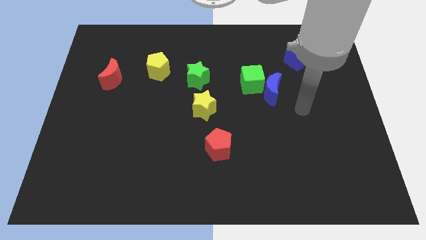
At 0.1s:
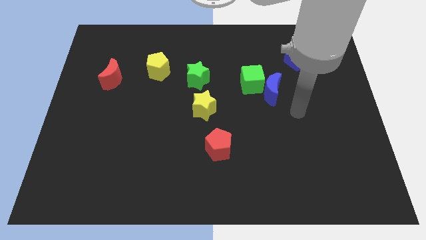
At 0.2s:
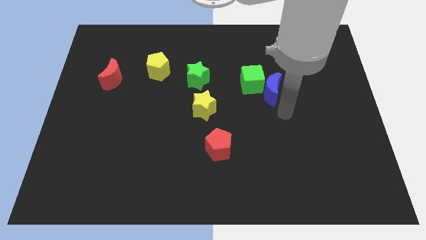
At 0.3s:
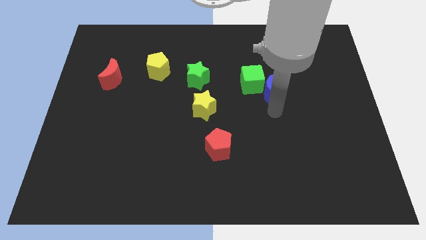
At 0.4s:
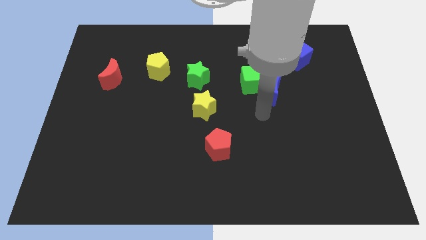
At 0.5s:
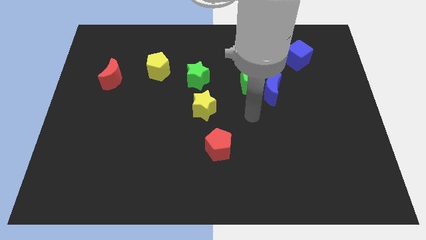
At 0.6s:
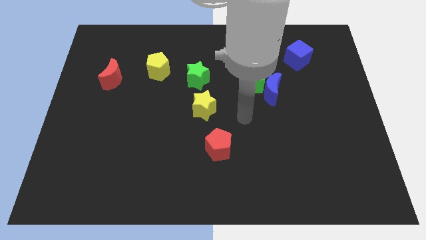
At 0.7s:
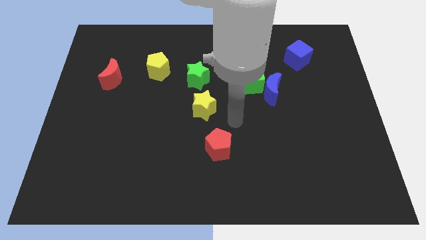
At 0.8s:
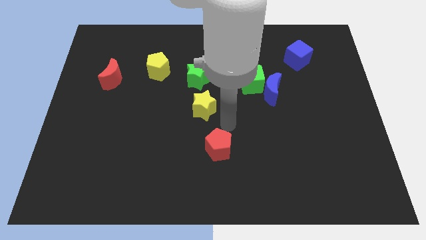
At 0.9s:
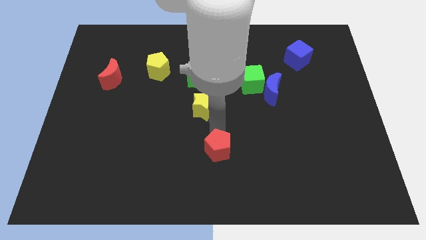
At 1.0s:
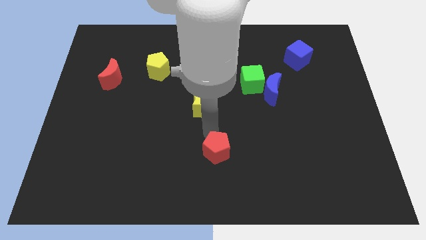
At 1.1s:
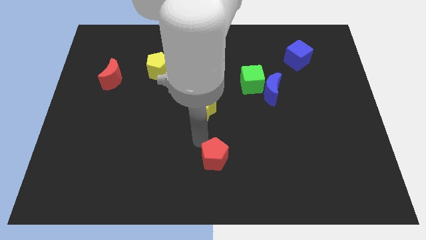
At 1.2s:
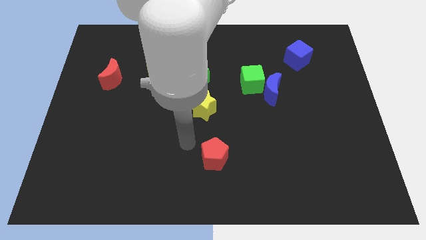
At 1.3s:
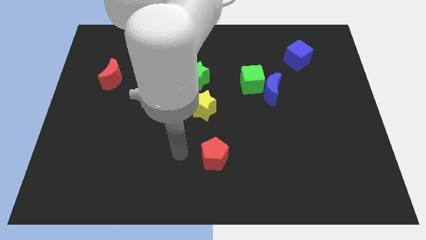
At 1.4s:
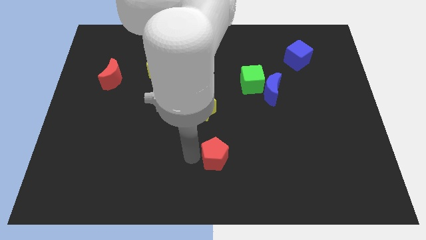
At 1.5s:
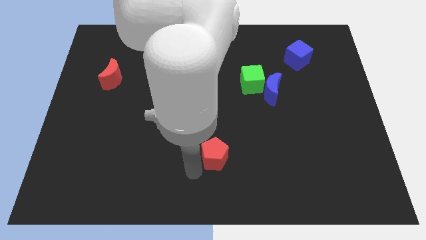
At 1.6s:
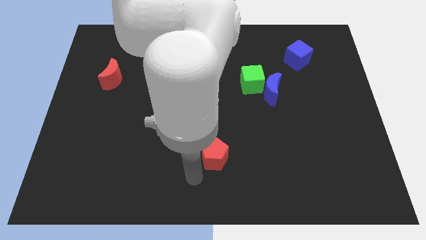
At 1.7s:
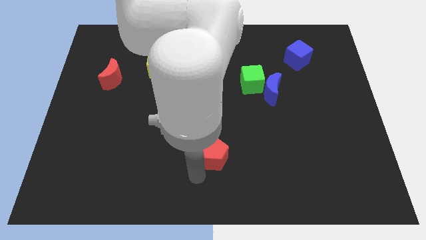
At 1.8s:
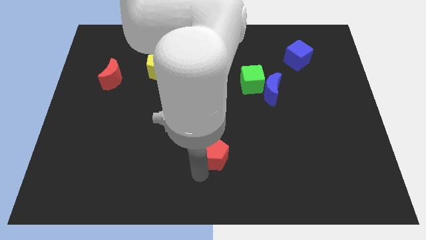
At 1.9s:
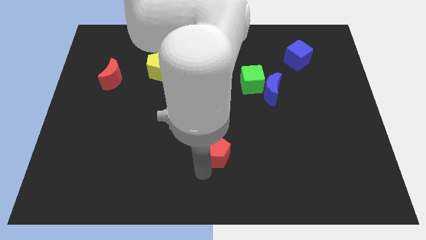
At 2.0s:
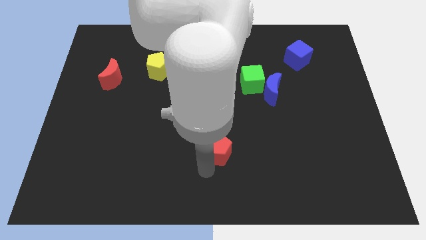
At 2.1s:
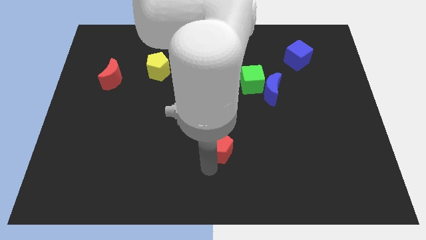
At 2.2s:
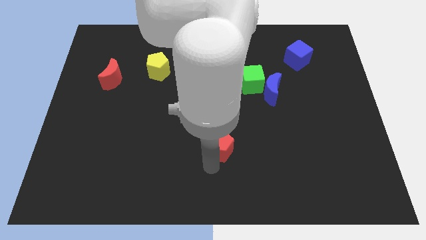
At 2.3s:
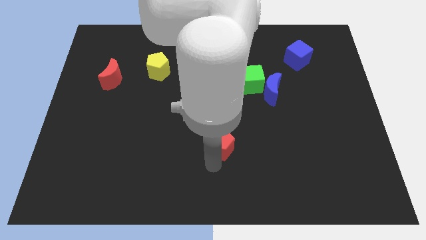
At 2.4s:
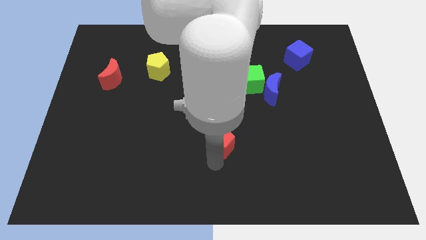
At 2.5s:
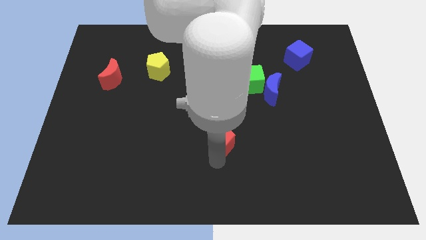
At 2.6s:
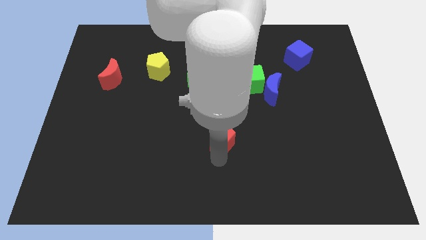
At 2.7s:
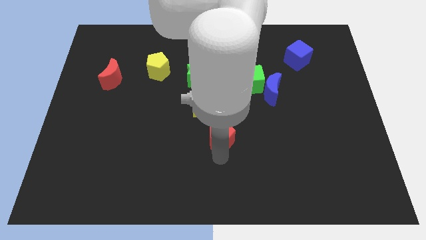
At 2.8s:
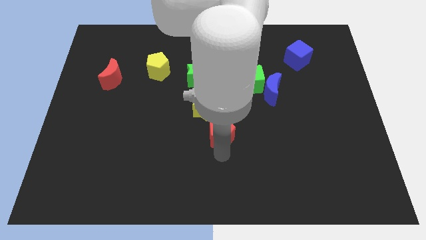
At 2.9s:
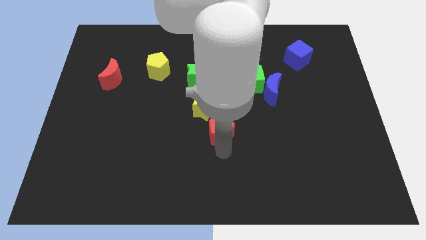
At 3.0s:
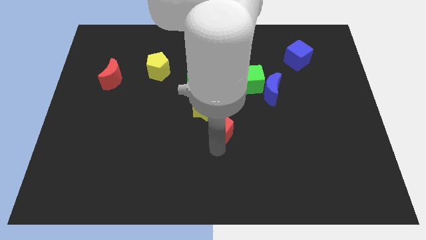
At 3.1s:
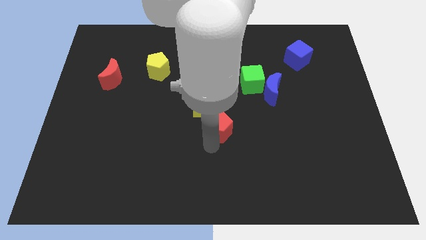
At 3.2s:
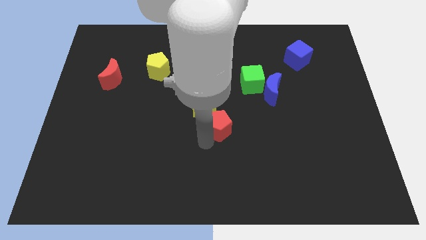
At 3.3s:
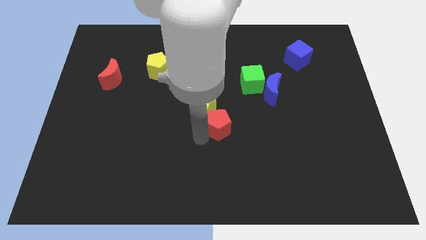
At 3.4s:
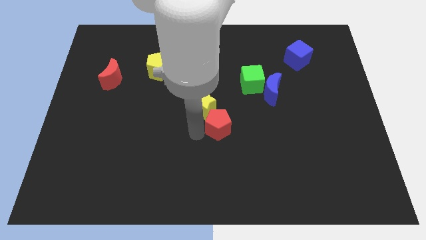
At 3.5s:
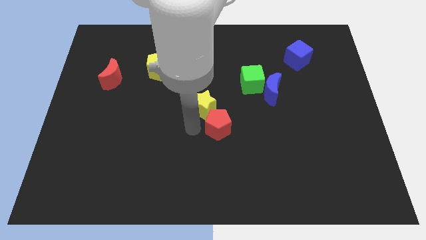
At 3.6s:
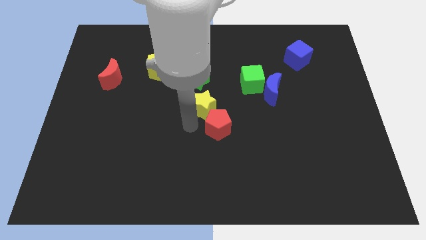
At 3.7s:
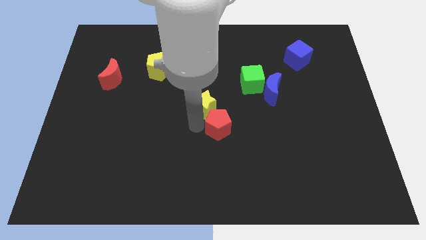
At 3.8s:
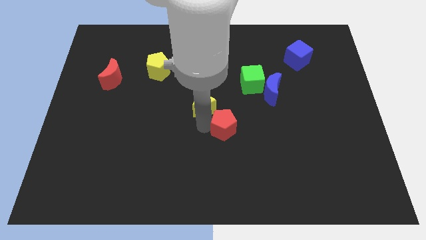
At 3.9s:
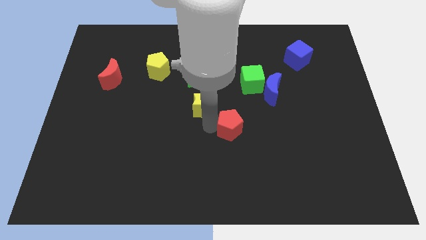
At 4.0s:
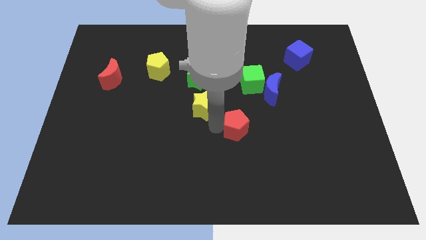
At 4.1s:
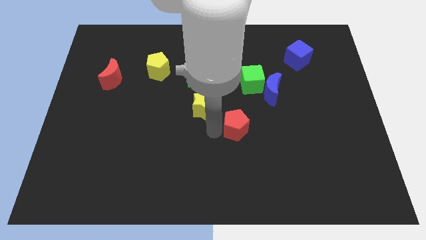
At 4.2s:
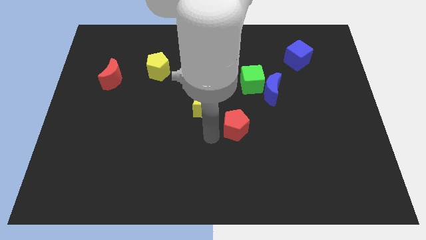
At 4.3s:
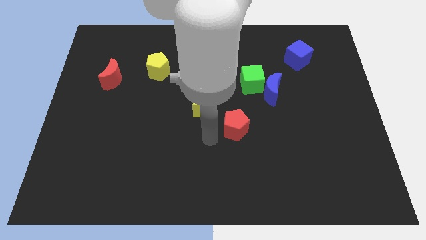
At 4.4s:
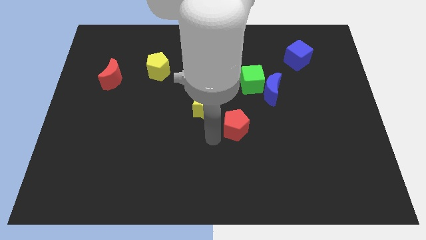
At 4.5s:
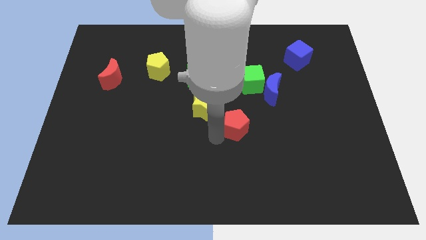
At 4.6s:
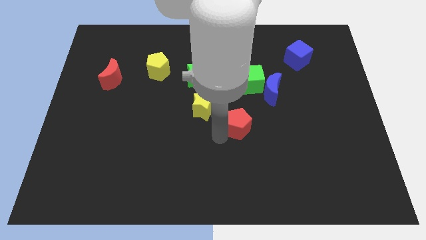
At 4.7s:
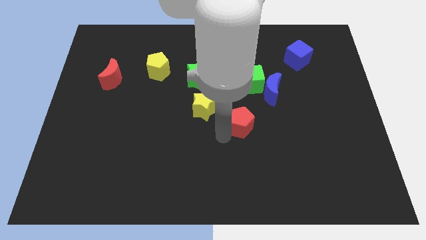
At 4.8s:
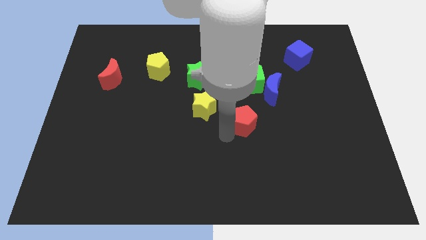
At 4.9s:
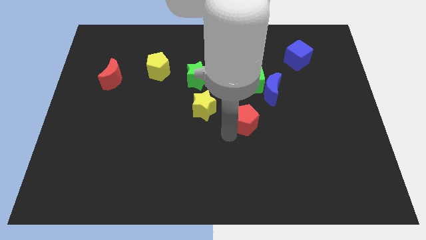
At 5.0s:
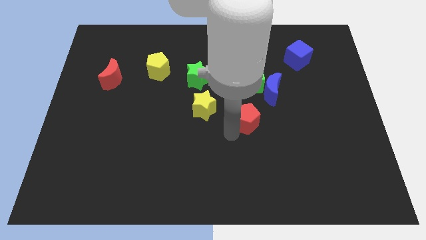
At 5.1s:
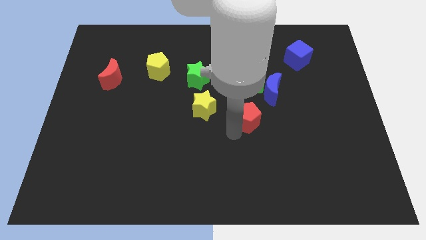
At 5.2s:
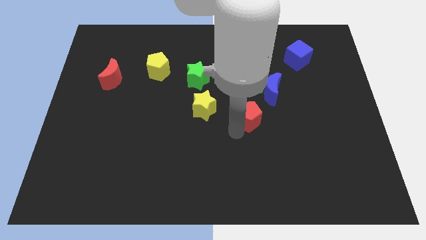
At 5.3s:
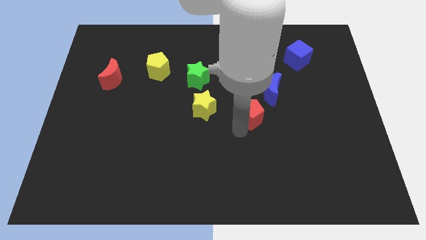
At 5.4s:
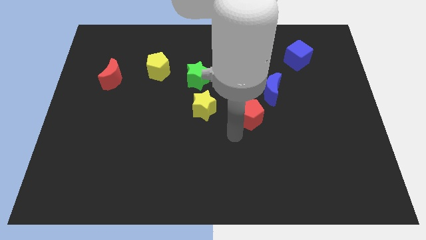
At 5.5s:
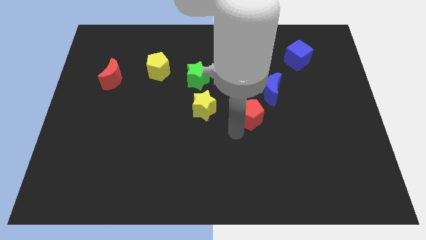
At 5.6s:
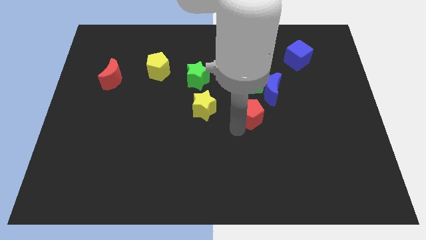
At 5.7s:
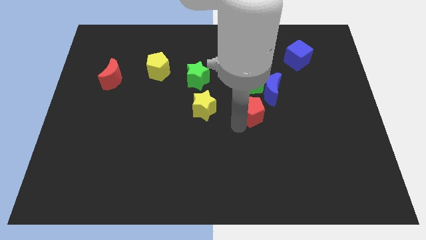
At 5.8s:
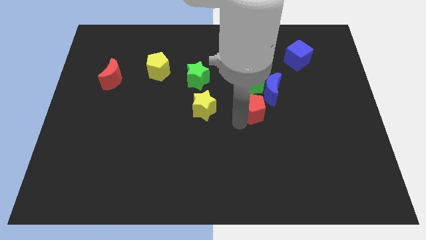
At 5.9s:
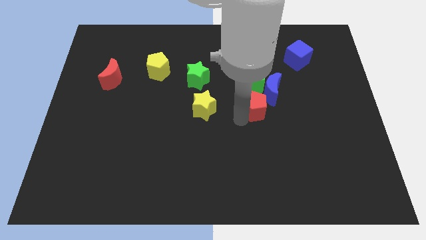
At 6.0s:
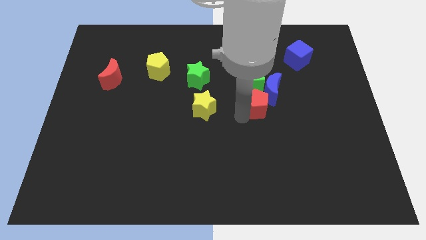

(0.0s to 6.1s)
put the red pentagon next to the blue moon

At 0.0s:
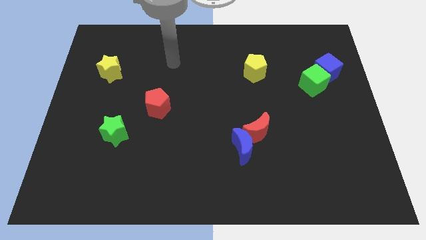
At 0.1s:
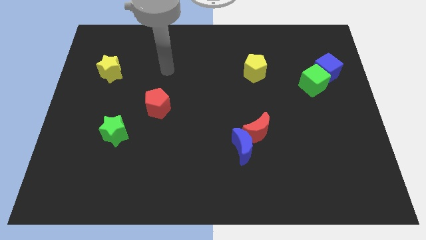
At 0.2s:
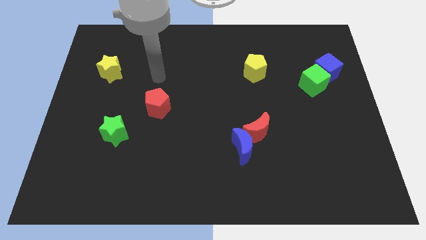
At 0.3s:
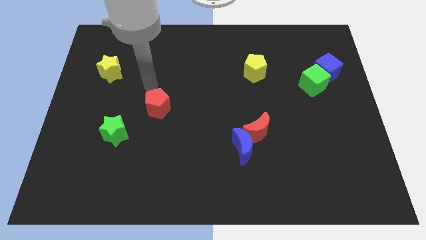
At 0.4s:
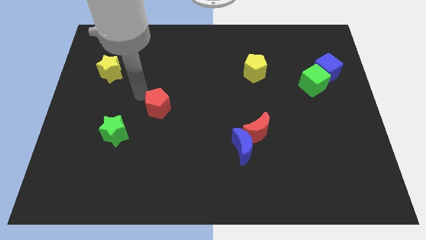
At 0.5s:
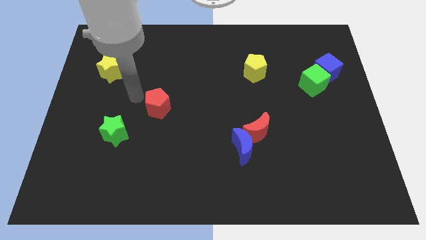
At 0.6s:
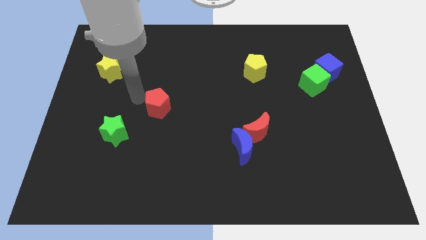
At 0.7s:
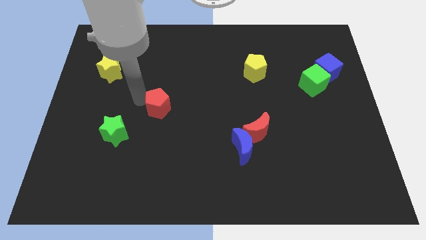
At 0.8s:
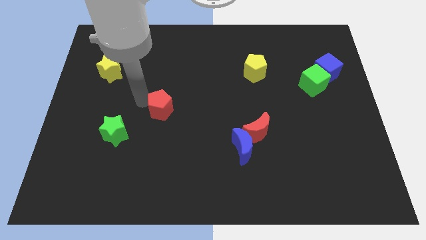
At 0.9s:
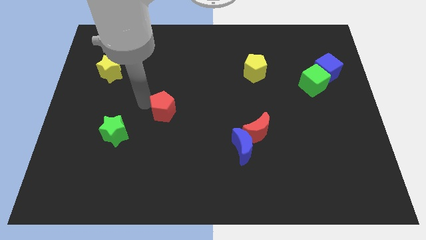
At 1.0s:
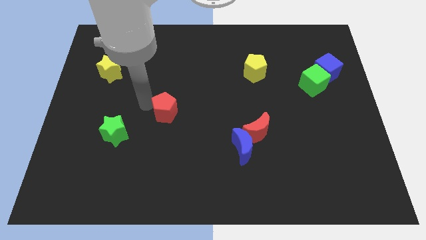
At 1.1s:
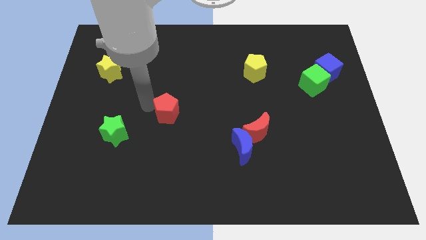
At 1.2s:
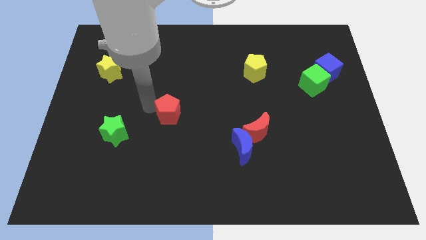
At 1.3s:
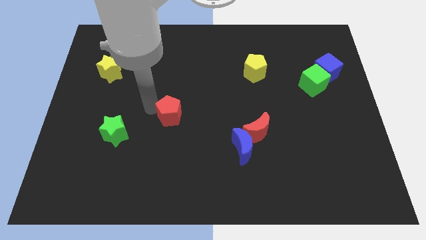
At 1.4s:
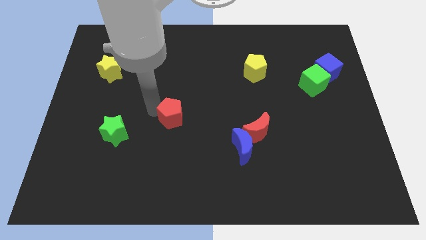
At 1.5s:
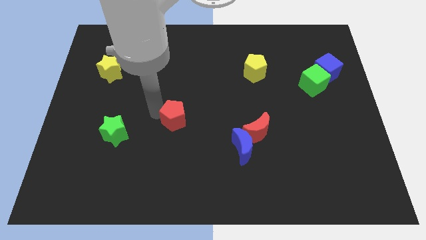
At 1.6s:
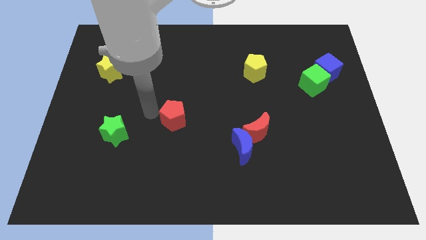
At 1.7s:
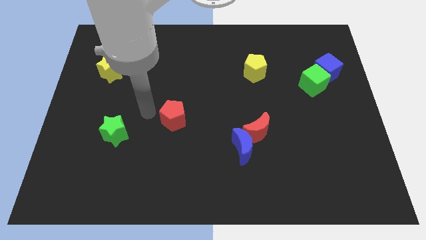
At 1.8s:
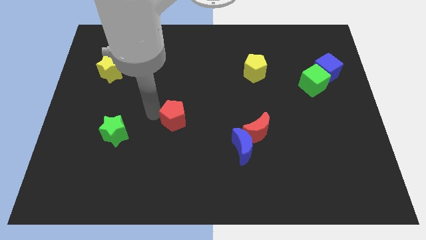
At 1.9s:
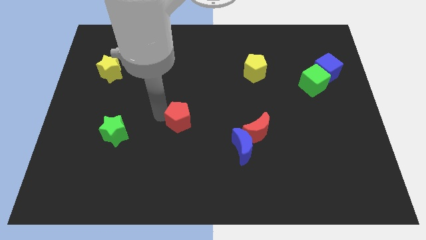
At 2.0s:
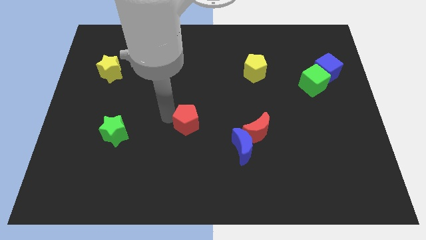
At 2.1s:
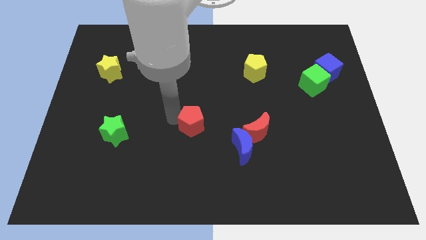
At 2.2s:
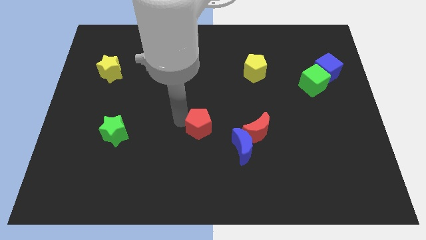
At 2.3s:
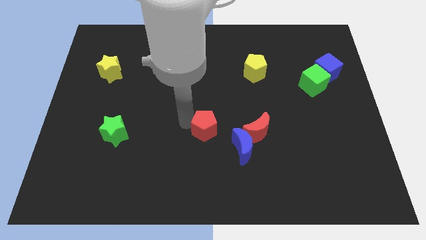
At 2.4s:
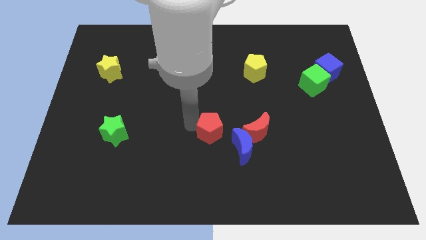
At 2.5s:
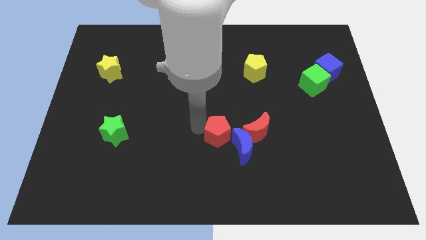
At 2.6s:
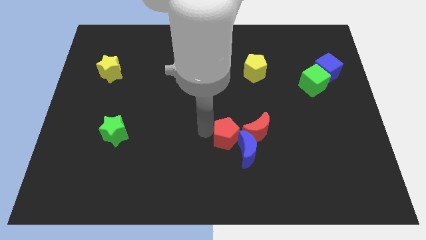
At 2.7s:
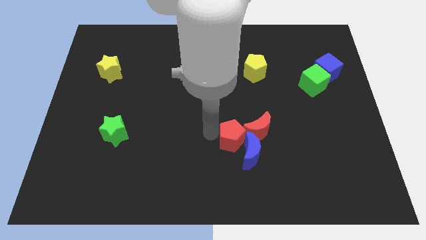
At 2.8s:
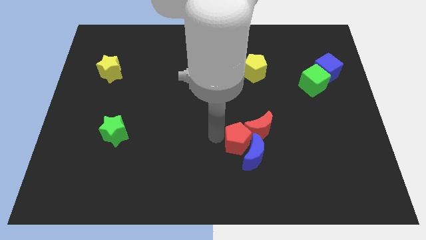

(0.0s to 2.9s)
push the red pentagon close to the red moon
